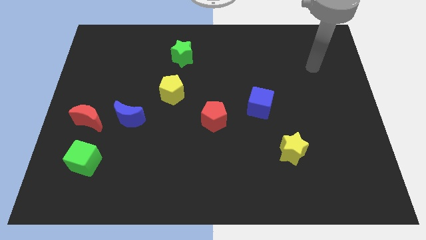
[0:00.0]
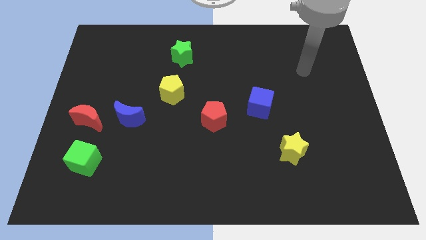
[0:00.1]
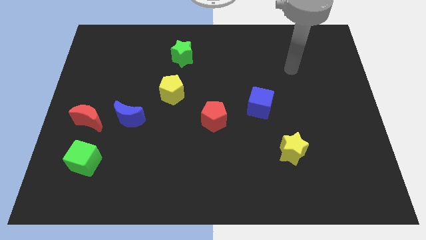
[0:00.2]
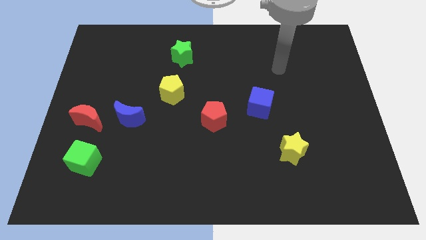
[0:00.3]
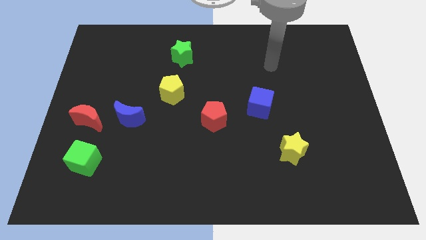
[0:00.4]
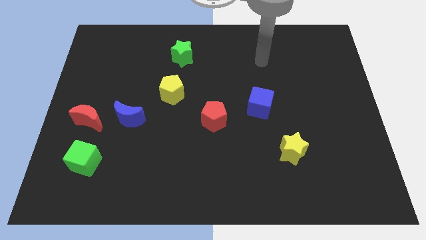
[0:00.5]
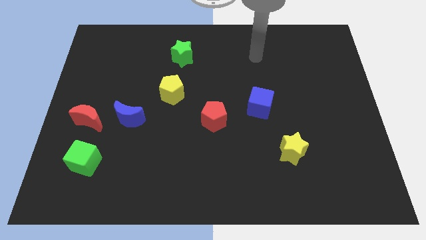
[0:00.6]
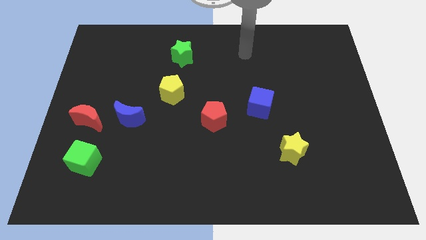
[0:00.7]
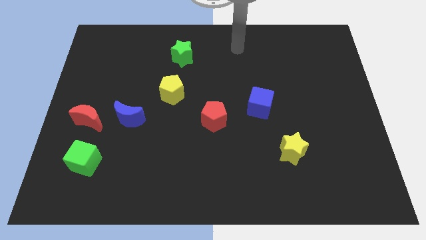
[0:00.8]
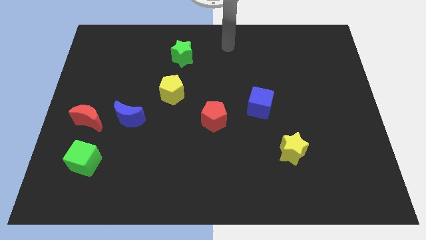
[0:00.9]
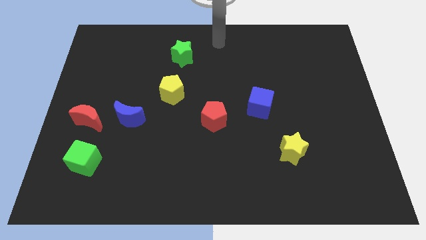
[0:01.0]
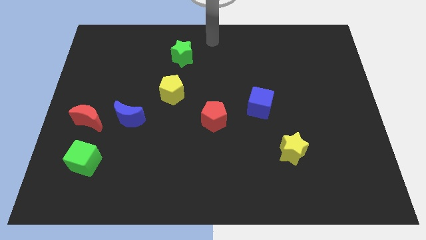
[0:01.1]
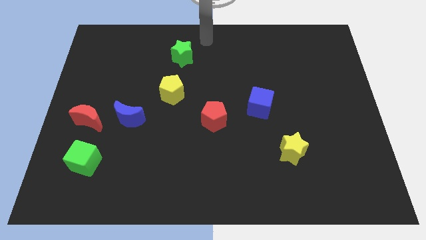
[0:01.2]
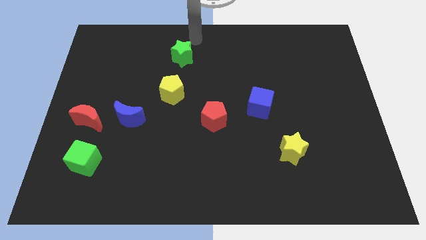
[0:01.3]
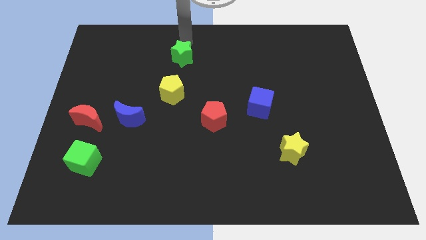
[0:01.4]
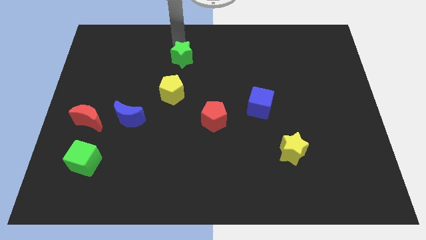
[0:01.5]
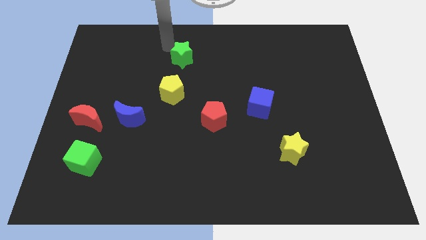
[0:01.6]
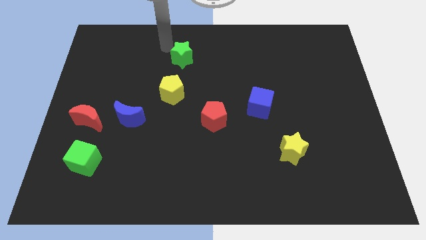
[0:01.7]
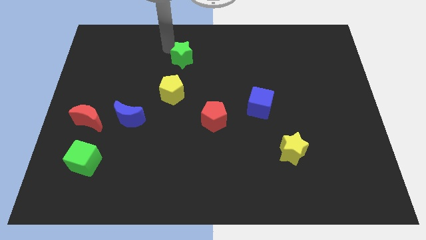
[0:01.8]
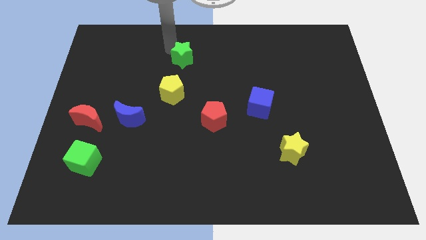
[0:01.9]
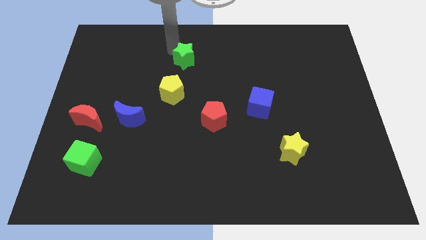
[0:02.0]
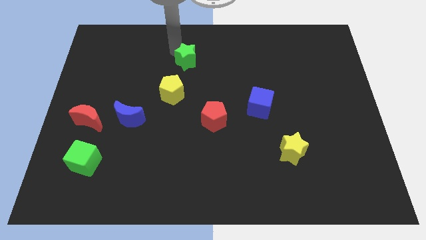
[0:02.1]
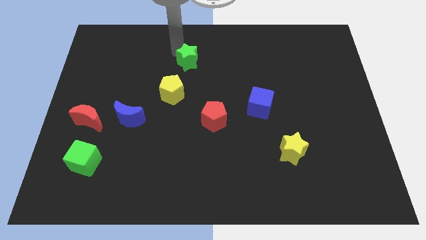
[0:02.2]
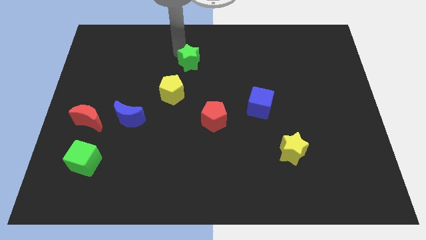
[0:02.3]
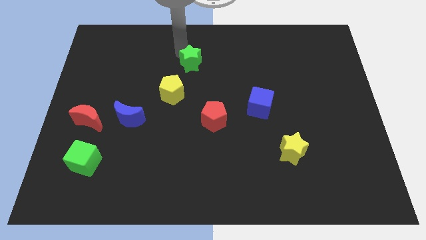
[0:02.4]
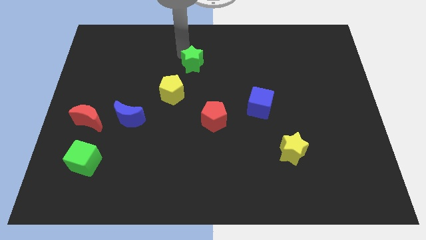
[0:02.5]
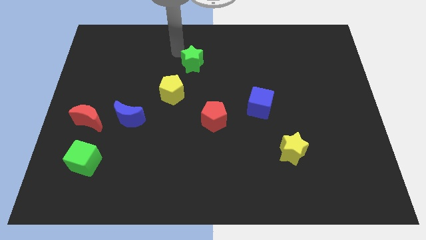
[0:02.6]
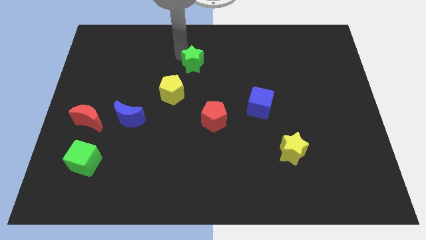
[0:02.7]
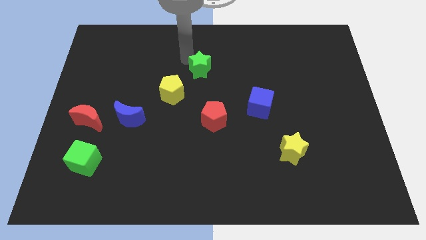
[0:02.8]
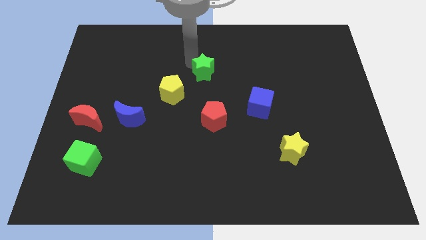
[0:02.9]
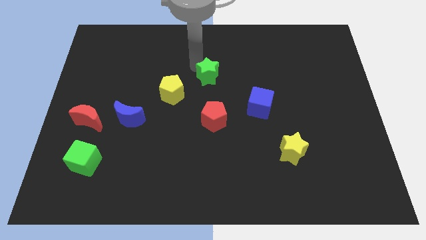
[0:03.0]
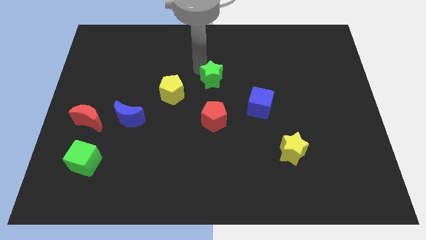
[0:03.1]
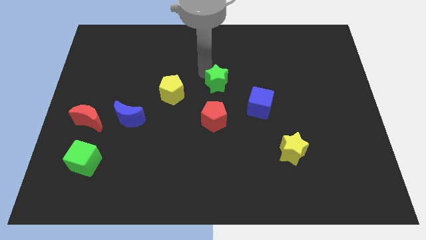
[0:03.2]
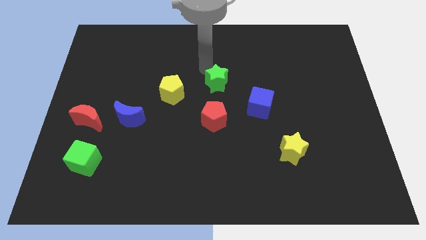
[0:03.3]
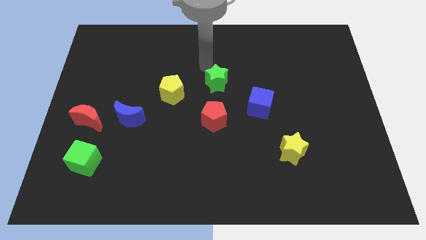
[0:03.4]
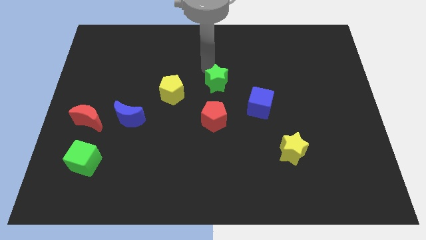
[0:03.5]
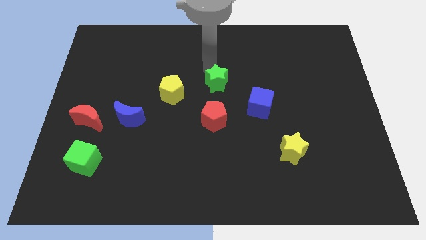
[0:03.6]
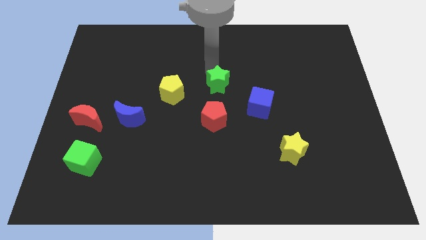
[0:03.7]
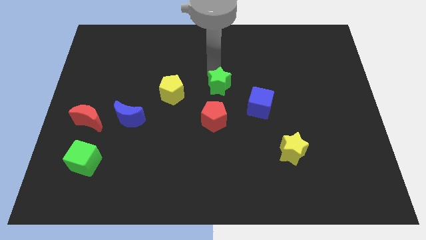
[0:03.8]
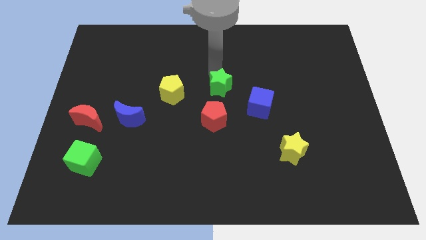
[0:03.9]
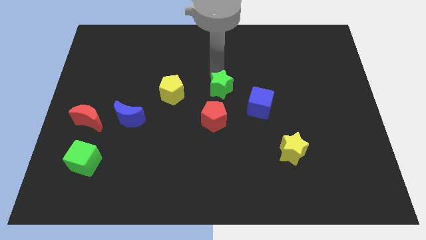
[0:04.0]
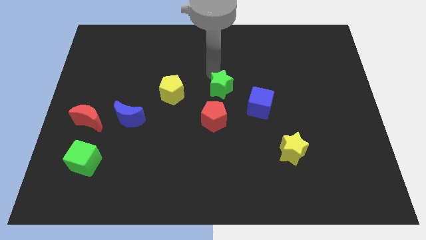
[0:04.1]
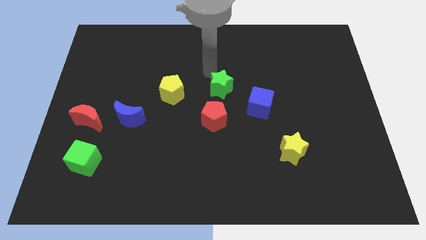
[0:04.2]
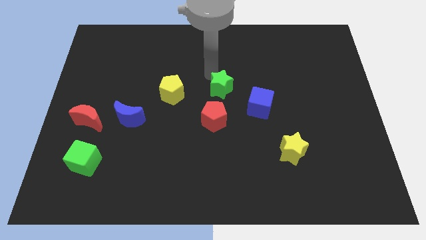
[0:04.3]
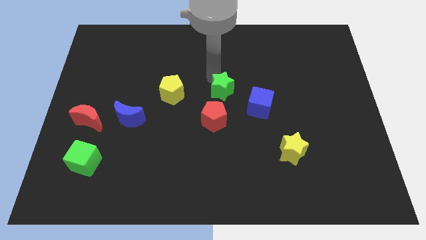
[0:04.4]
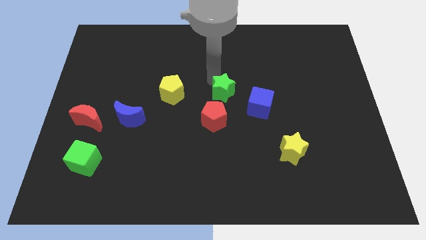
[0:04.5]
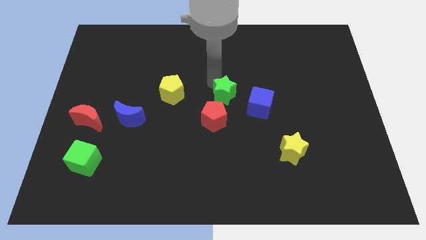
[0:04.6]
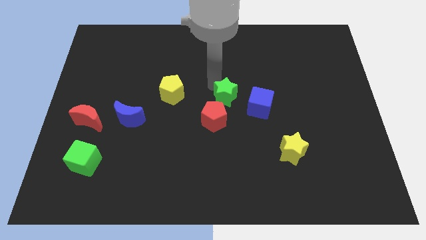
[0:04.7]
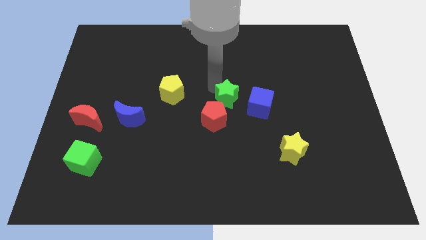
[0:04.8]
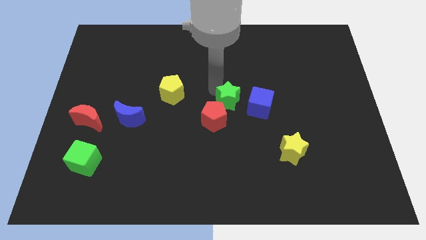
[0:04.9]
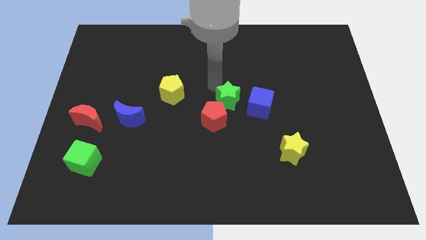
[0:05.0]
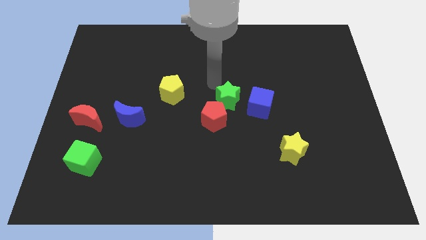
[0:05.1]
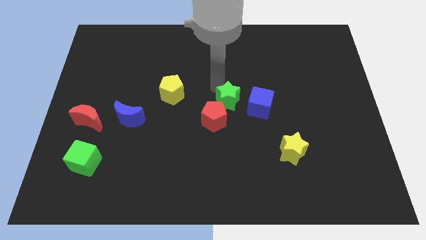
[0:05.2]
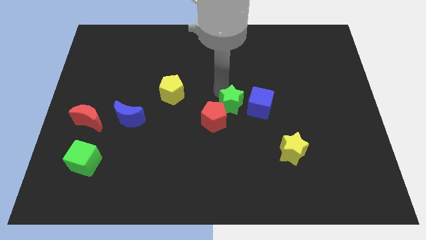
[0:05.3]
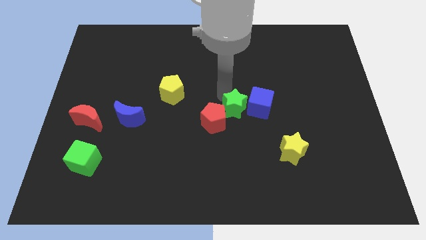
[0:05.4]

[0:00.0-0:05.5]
push the green star down and to the right

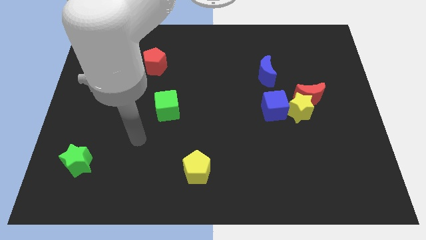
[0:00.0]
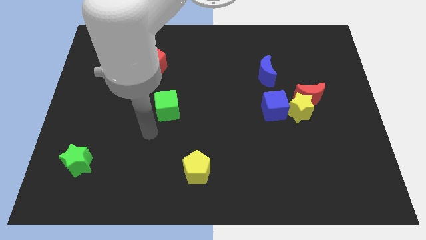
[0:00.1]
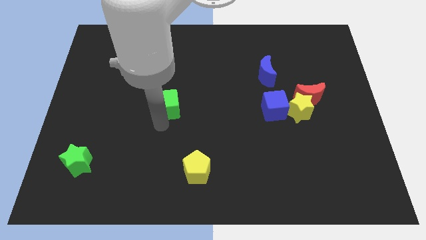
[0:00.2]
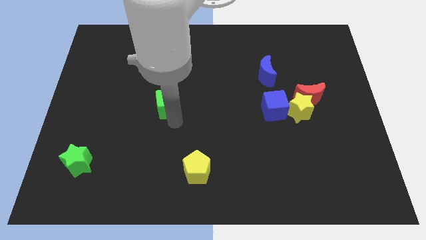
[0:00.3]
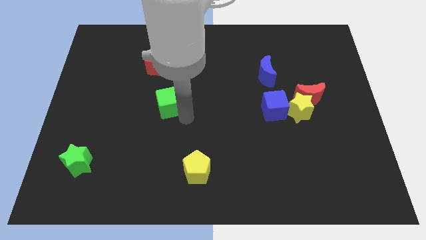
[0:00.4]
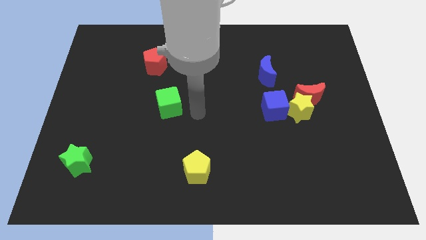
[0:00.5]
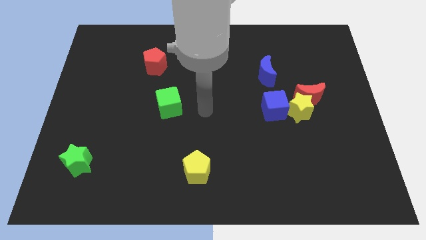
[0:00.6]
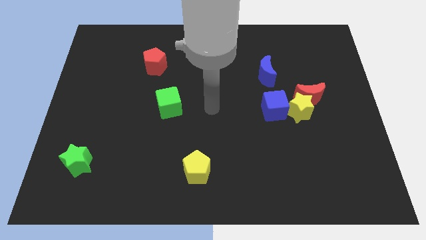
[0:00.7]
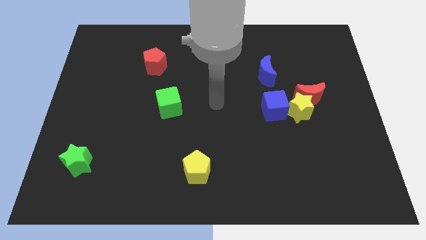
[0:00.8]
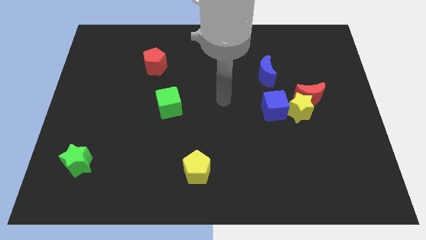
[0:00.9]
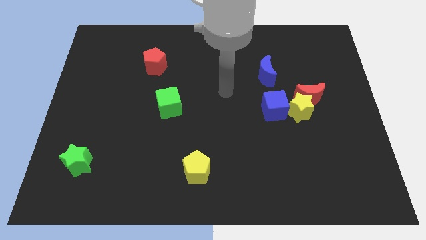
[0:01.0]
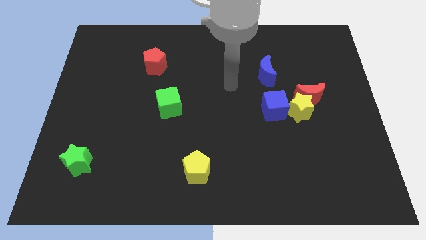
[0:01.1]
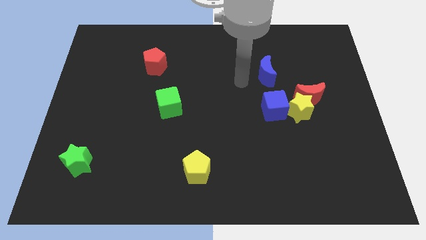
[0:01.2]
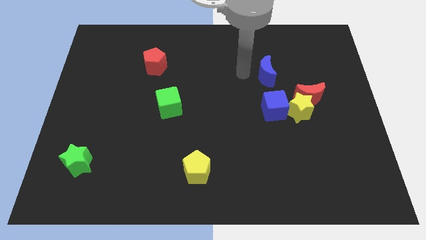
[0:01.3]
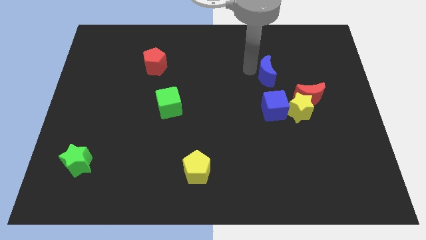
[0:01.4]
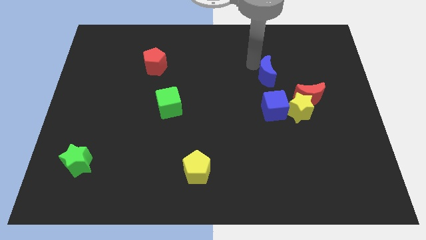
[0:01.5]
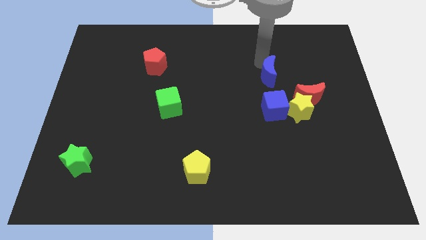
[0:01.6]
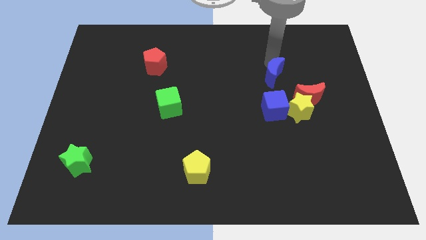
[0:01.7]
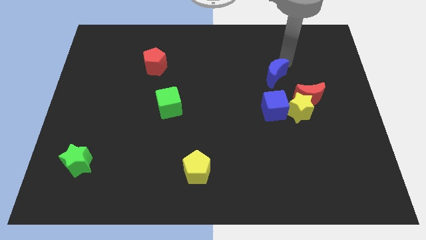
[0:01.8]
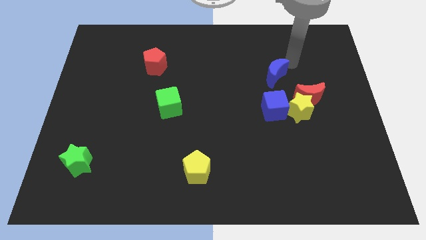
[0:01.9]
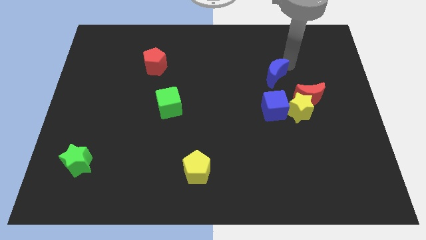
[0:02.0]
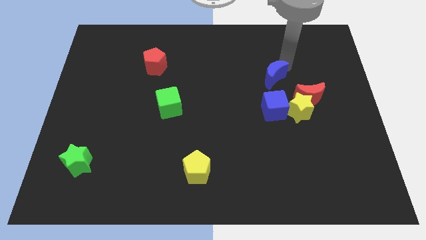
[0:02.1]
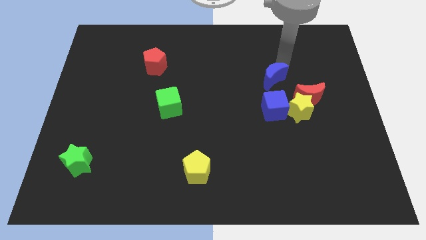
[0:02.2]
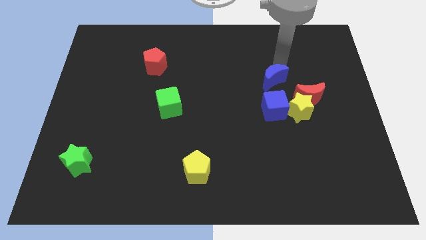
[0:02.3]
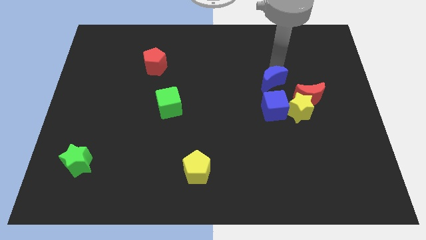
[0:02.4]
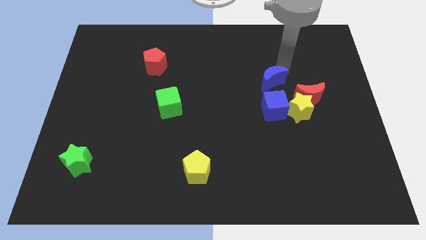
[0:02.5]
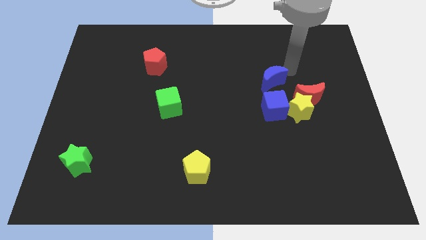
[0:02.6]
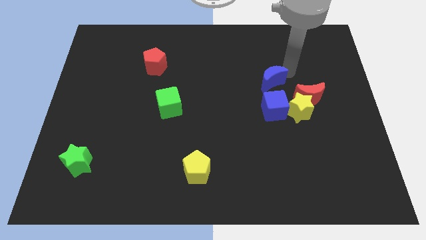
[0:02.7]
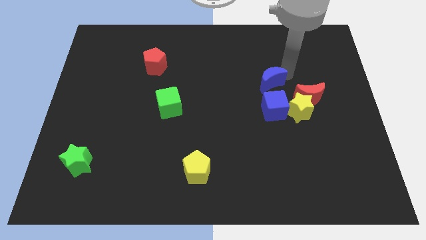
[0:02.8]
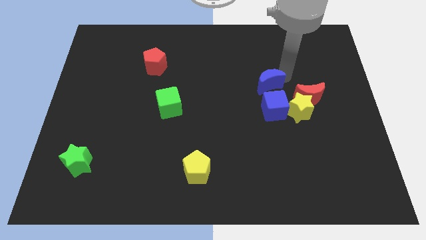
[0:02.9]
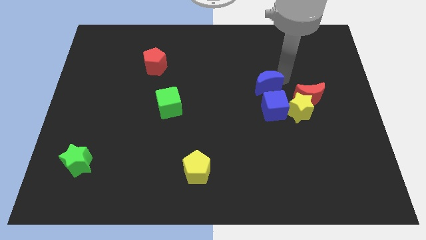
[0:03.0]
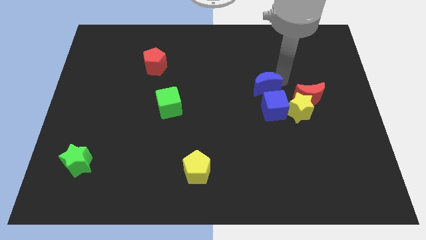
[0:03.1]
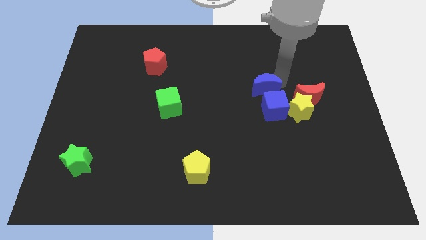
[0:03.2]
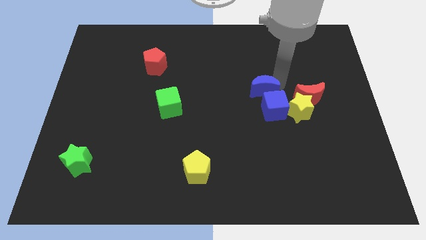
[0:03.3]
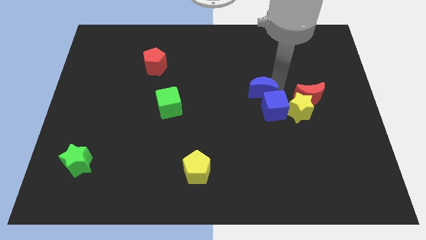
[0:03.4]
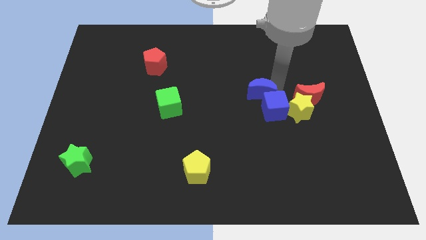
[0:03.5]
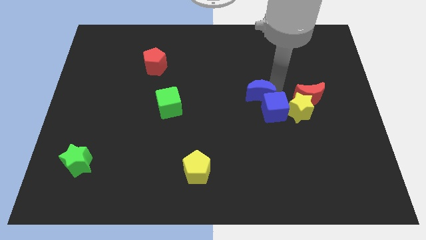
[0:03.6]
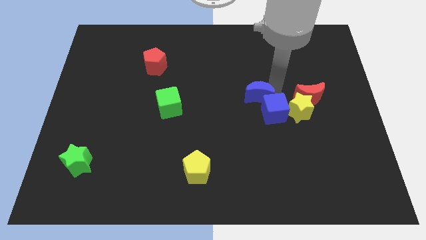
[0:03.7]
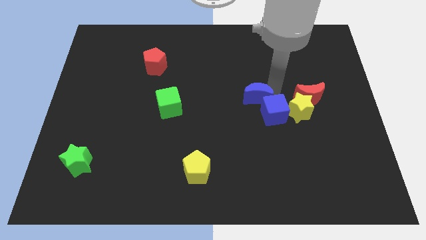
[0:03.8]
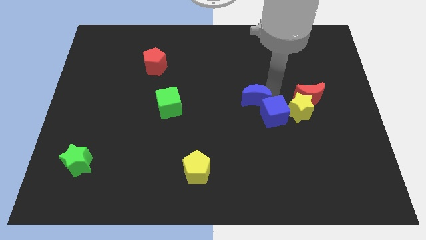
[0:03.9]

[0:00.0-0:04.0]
move the blue moon down and to the left a bit
